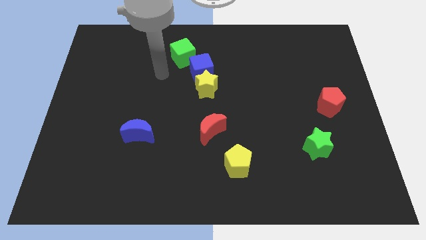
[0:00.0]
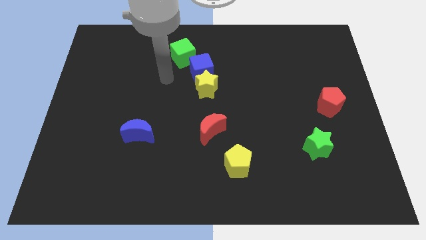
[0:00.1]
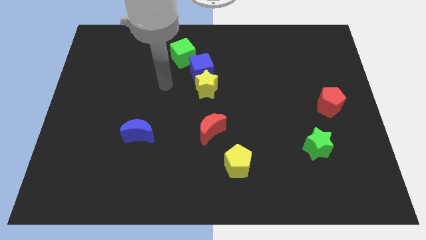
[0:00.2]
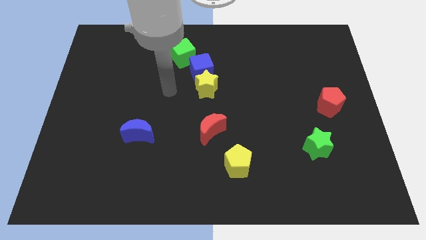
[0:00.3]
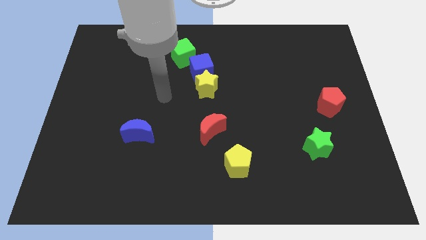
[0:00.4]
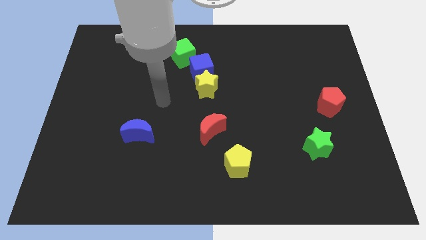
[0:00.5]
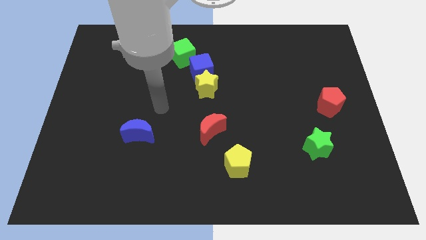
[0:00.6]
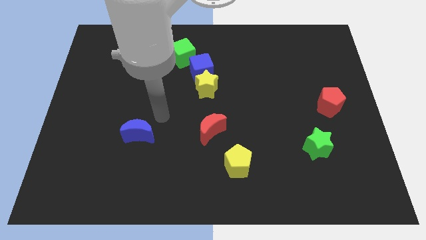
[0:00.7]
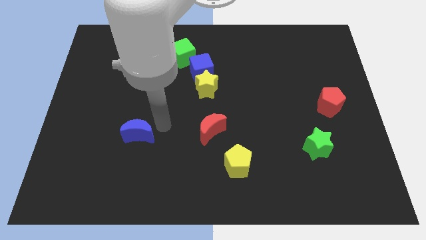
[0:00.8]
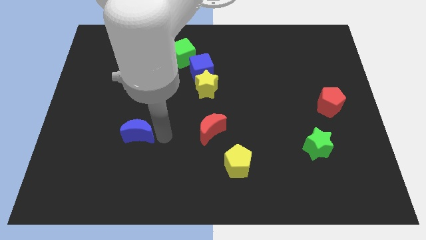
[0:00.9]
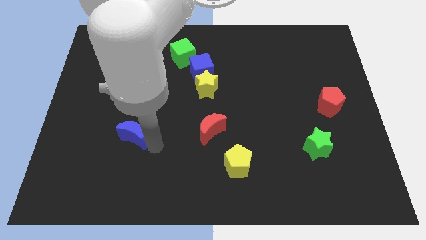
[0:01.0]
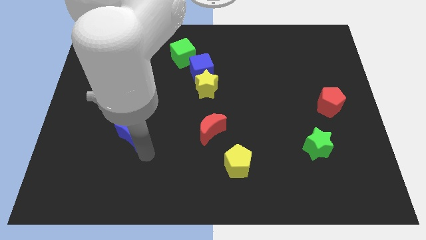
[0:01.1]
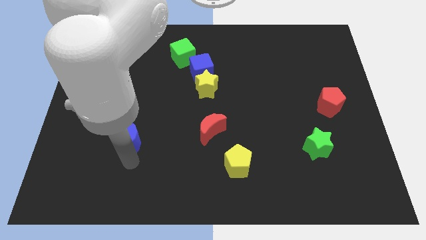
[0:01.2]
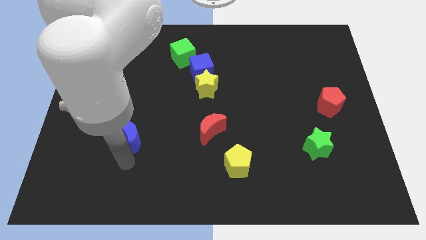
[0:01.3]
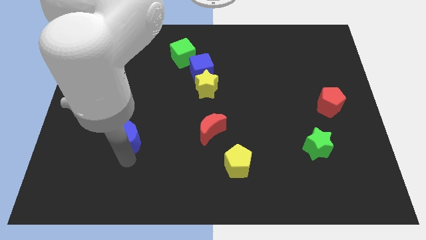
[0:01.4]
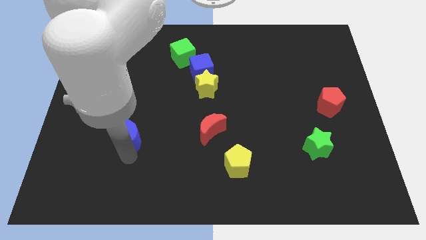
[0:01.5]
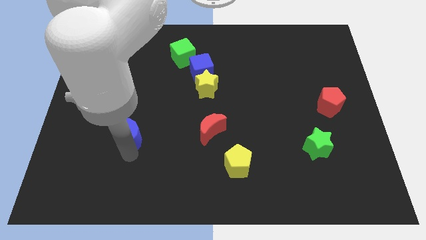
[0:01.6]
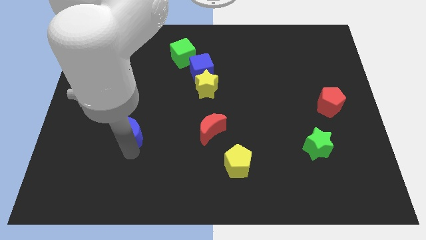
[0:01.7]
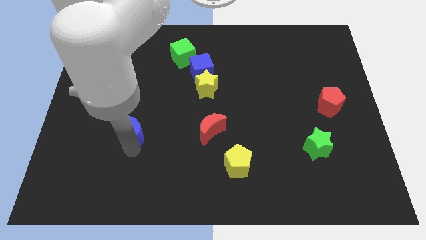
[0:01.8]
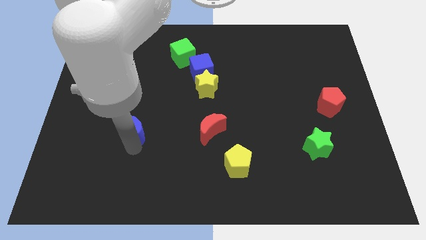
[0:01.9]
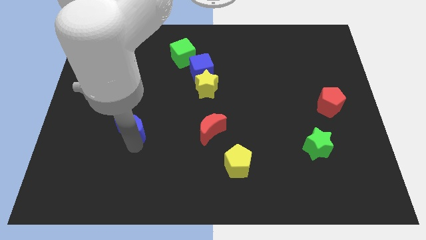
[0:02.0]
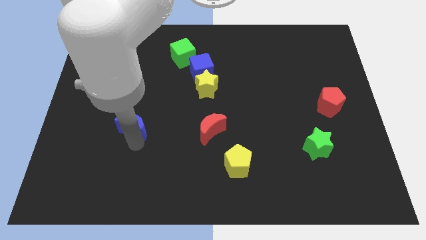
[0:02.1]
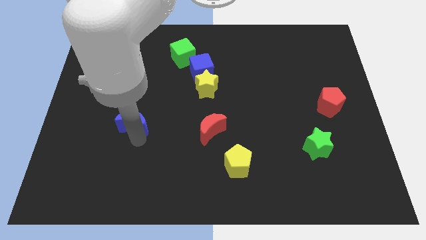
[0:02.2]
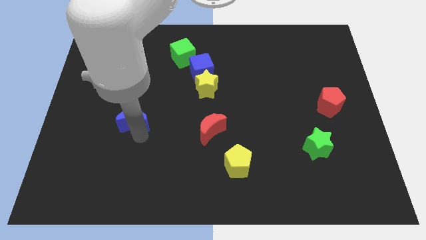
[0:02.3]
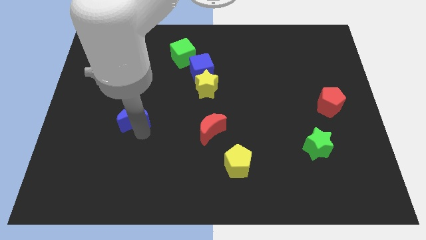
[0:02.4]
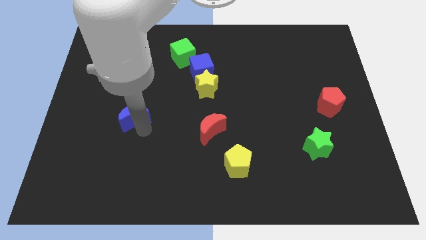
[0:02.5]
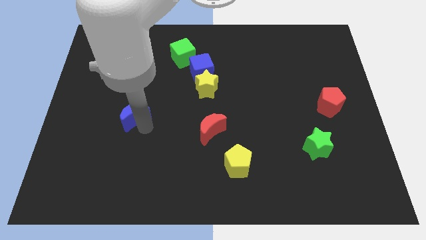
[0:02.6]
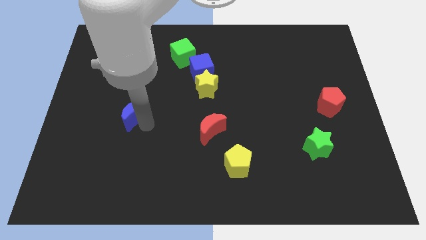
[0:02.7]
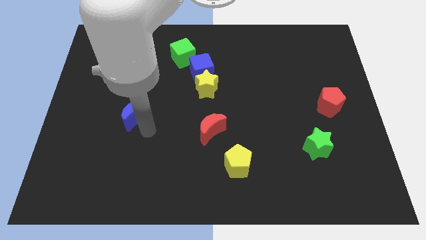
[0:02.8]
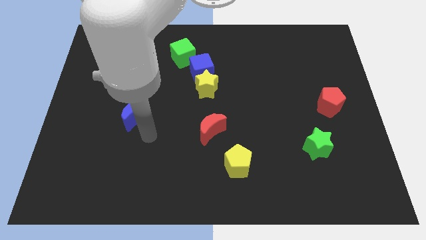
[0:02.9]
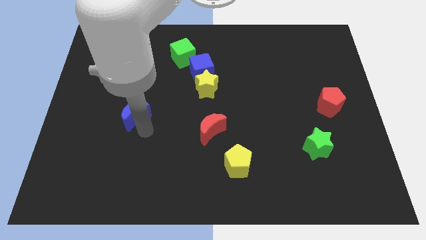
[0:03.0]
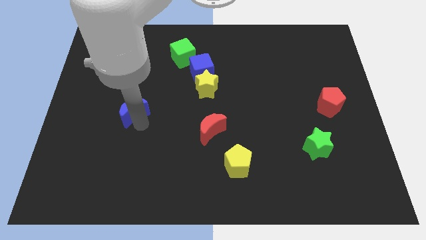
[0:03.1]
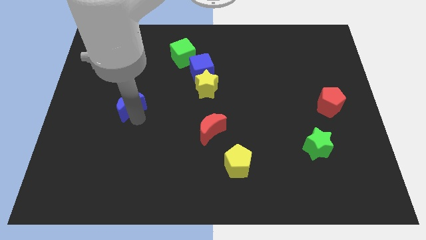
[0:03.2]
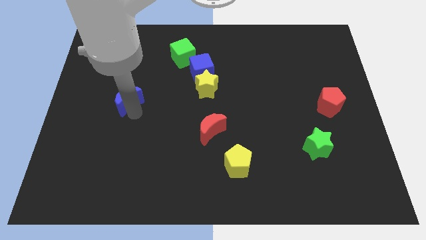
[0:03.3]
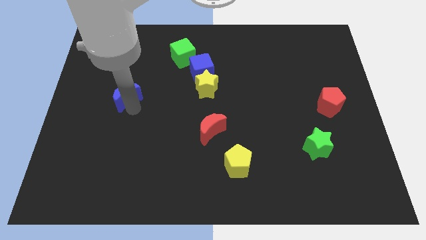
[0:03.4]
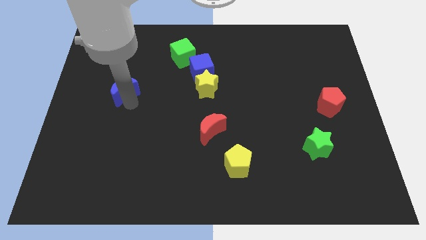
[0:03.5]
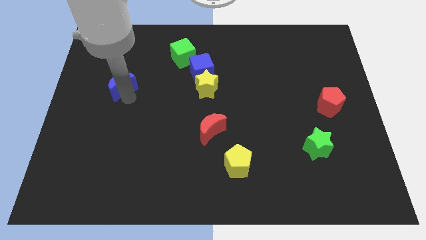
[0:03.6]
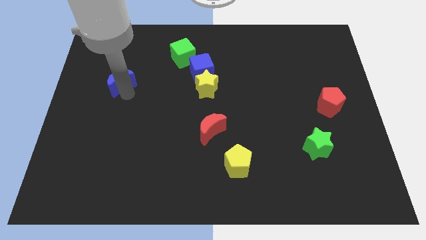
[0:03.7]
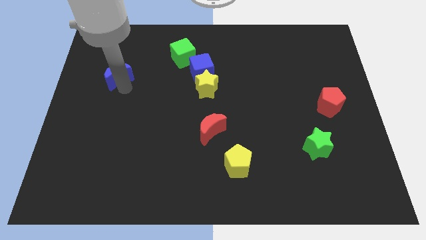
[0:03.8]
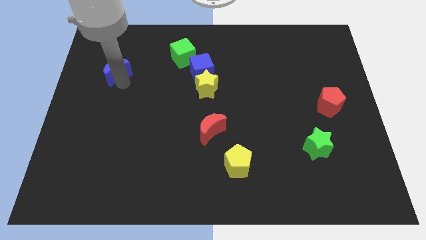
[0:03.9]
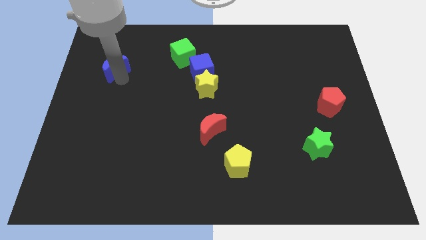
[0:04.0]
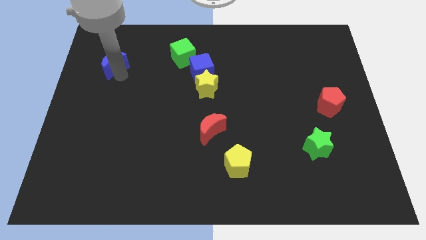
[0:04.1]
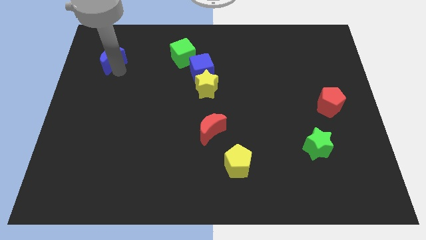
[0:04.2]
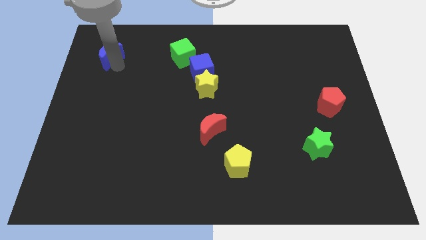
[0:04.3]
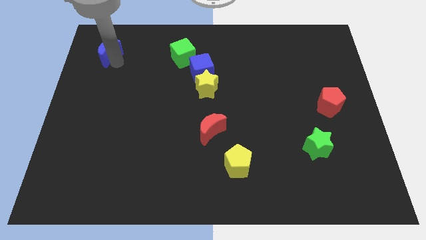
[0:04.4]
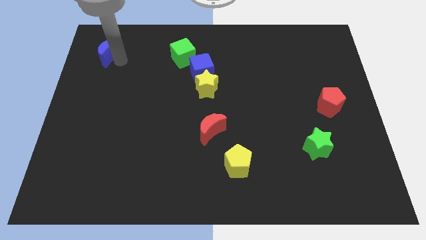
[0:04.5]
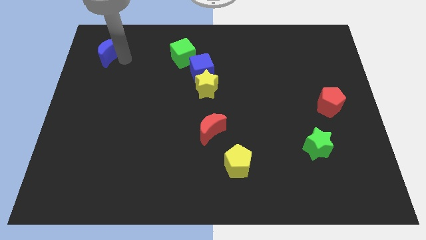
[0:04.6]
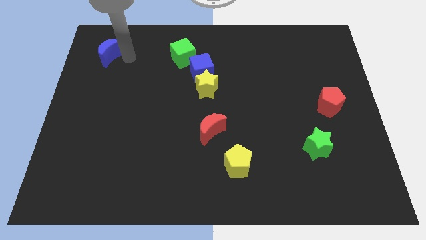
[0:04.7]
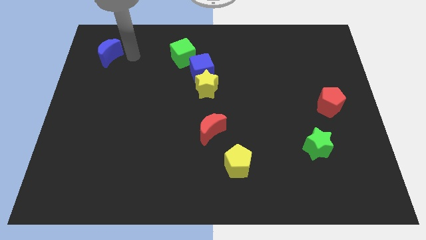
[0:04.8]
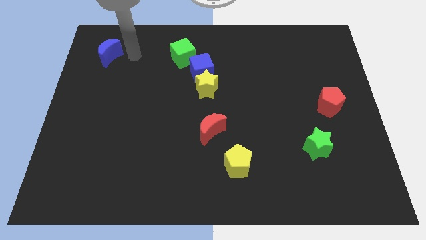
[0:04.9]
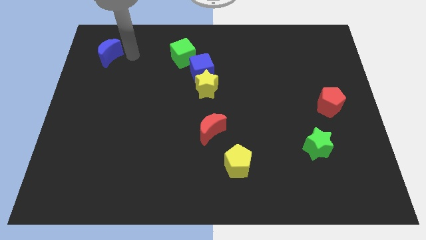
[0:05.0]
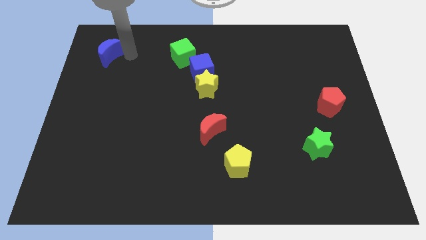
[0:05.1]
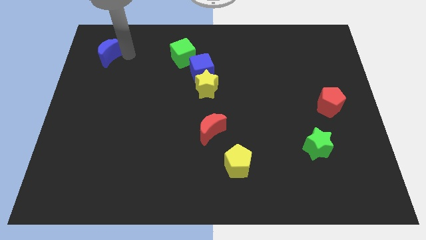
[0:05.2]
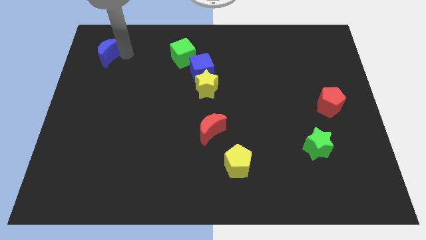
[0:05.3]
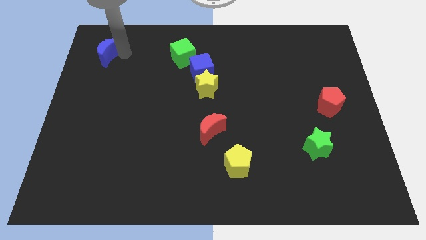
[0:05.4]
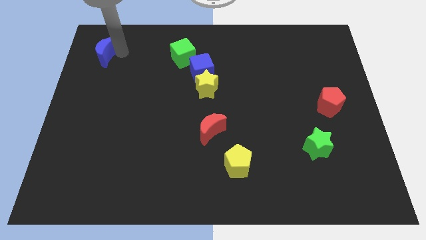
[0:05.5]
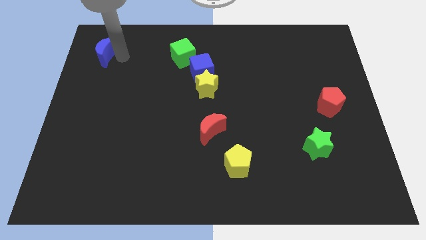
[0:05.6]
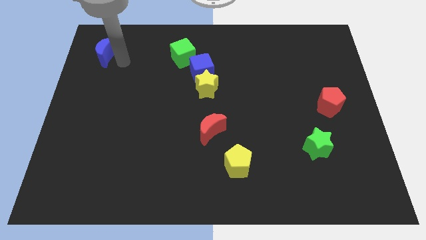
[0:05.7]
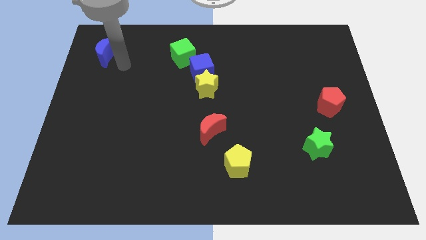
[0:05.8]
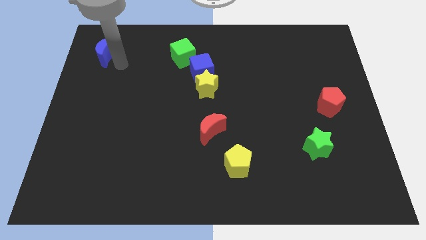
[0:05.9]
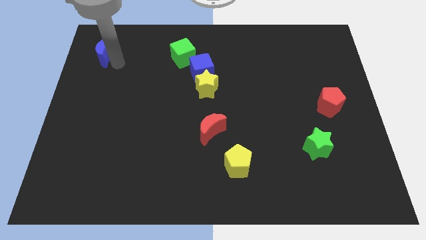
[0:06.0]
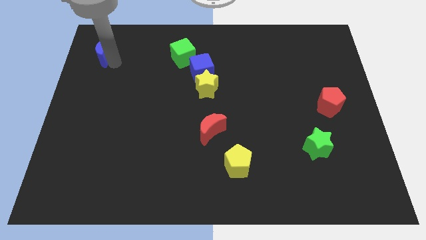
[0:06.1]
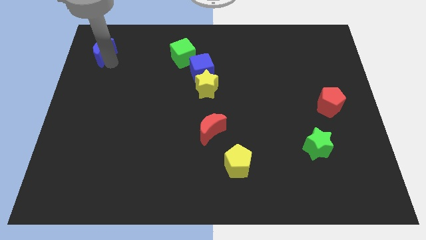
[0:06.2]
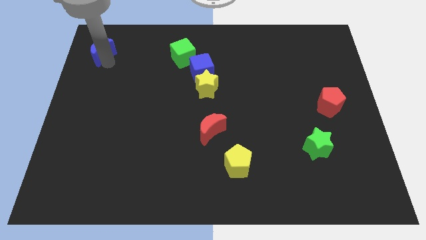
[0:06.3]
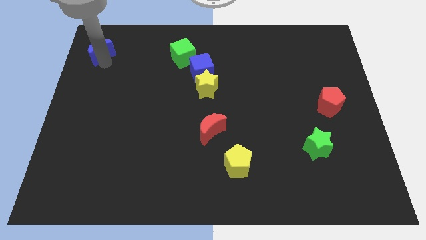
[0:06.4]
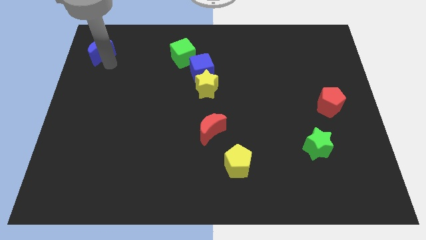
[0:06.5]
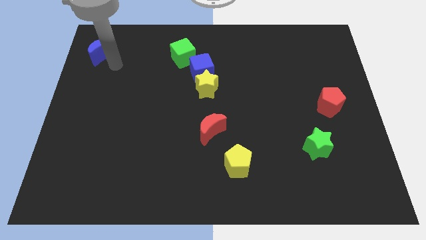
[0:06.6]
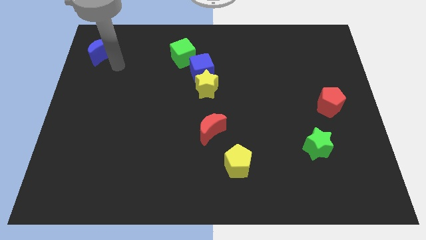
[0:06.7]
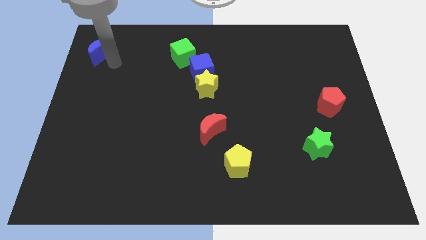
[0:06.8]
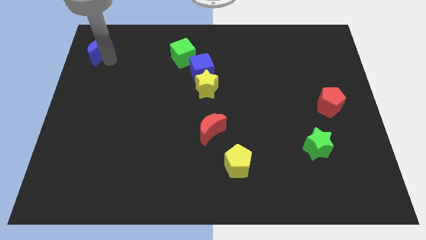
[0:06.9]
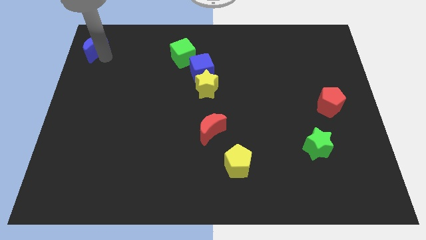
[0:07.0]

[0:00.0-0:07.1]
push the blue moon to the upper left corner
